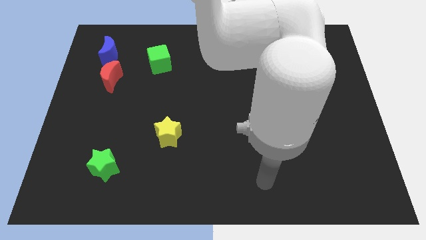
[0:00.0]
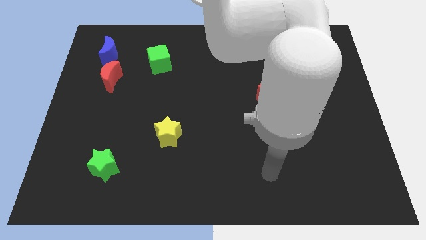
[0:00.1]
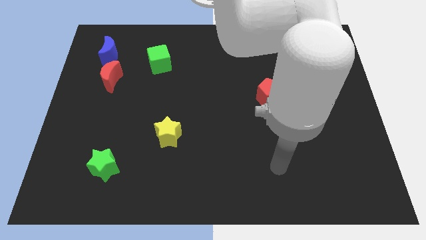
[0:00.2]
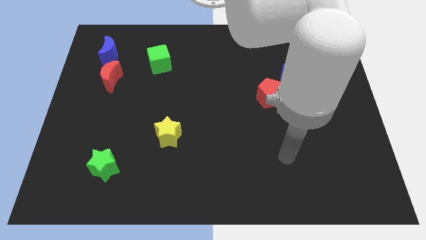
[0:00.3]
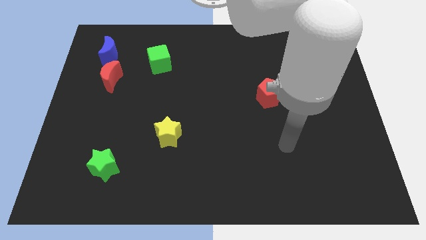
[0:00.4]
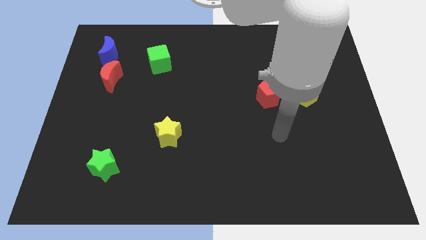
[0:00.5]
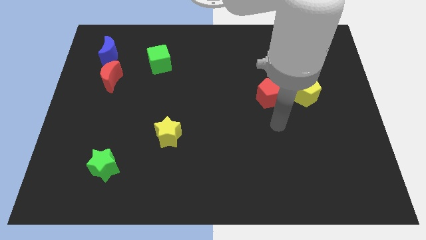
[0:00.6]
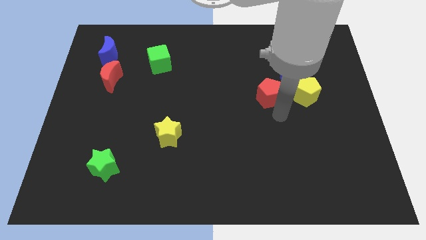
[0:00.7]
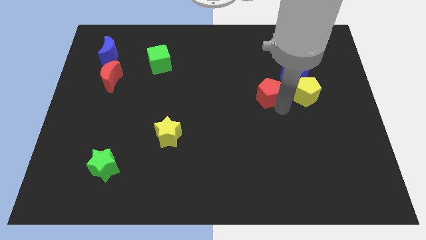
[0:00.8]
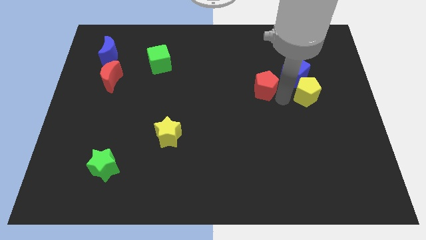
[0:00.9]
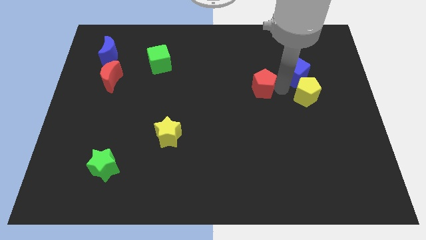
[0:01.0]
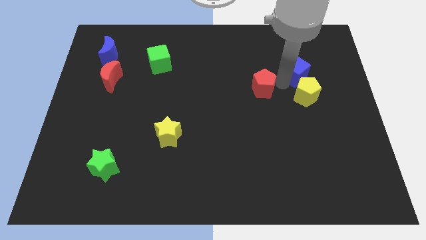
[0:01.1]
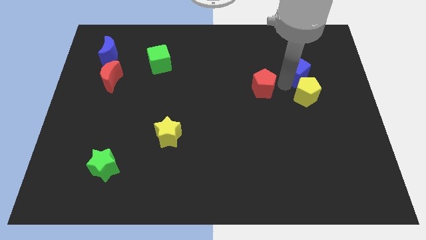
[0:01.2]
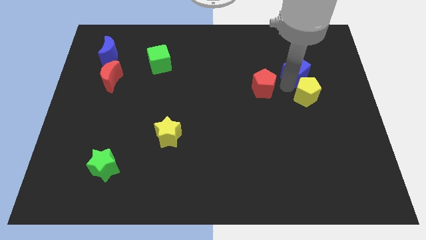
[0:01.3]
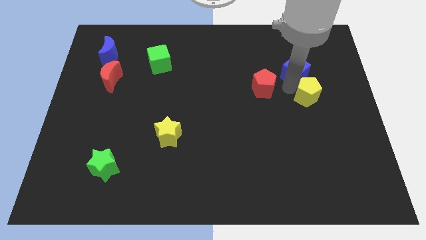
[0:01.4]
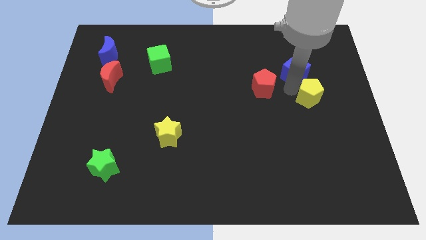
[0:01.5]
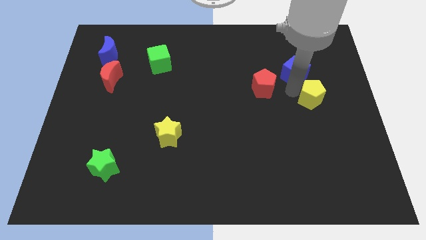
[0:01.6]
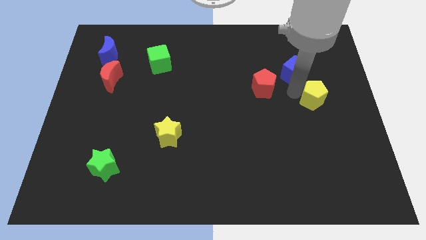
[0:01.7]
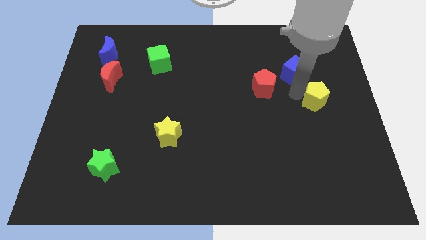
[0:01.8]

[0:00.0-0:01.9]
move the yellow pentagon away from the blue cube and red pentagon

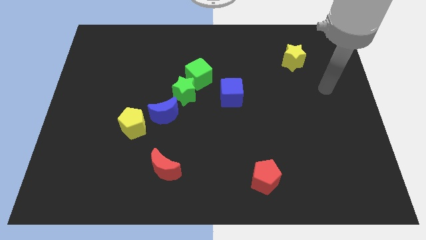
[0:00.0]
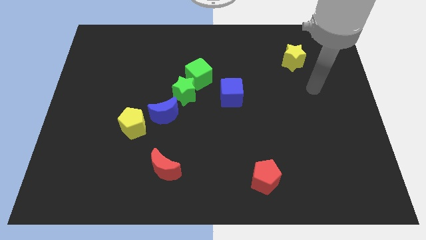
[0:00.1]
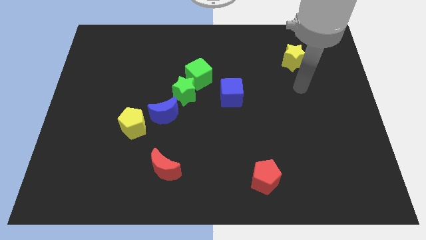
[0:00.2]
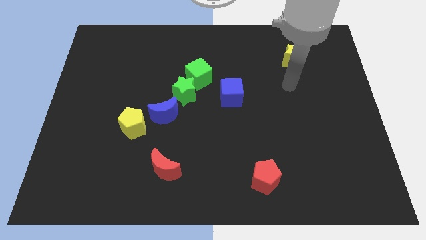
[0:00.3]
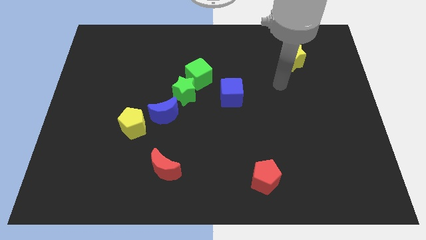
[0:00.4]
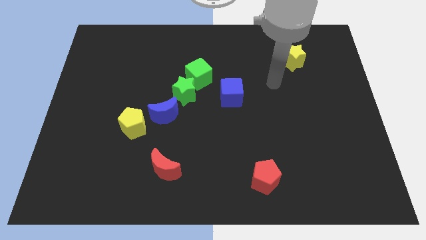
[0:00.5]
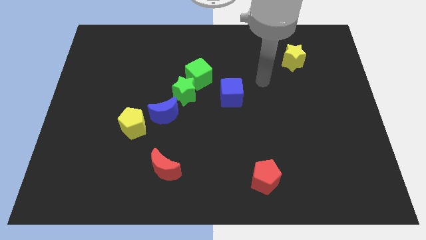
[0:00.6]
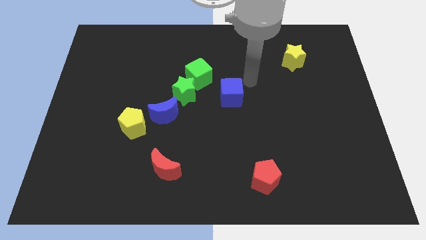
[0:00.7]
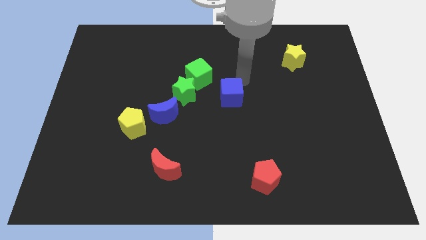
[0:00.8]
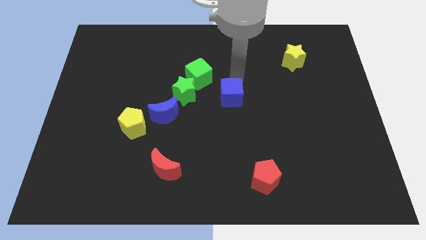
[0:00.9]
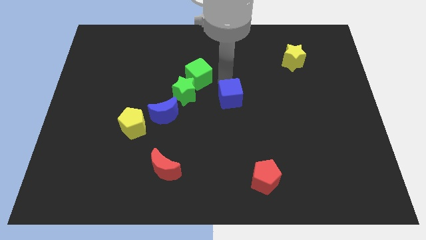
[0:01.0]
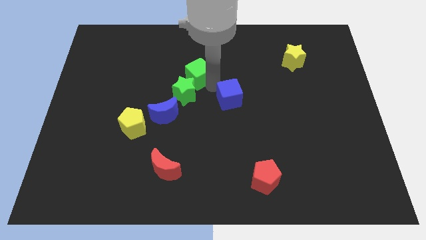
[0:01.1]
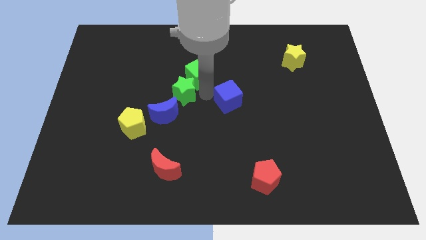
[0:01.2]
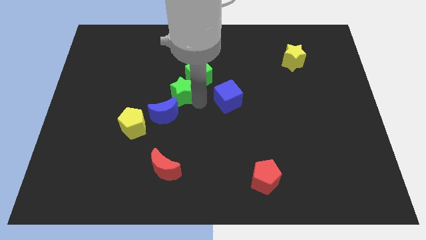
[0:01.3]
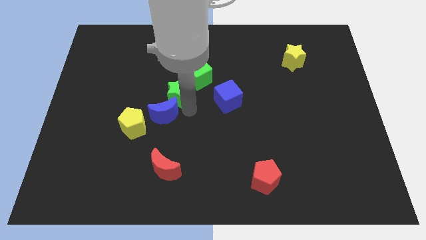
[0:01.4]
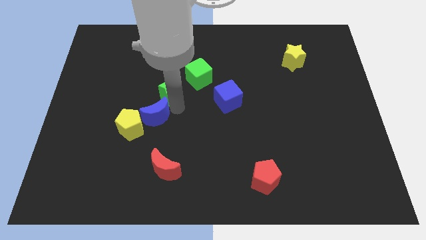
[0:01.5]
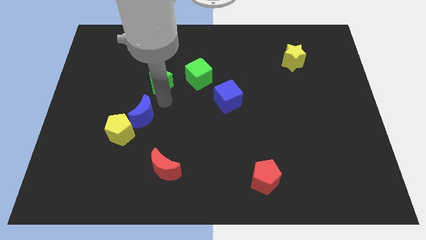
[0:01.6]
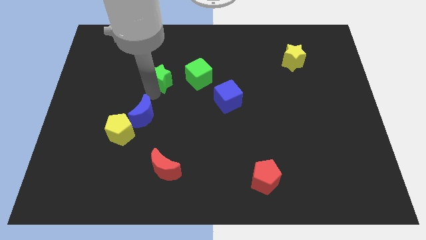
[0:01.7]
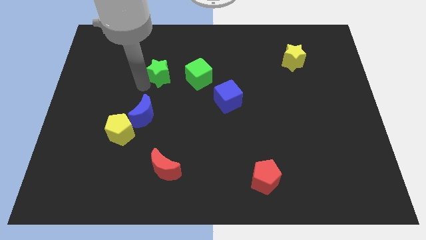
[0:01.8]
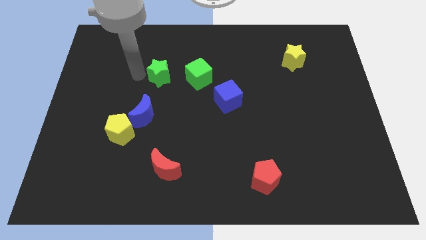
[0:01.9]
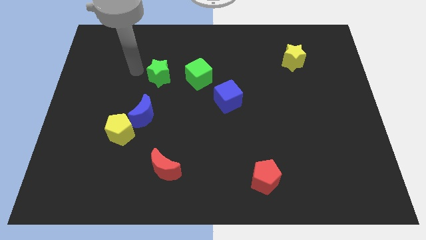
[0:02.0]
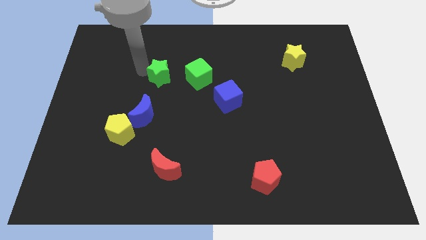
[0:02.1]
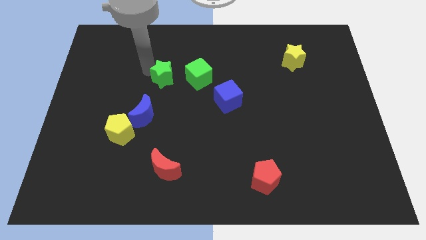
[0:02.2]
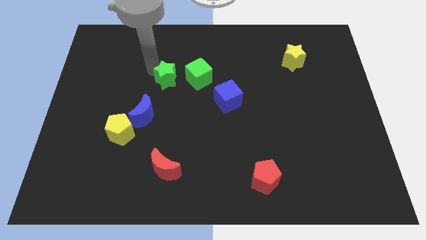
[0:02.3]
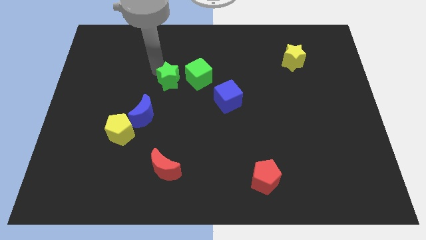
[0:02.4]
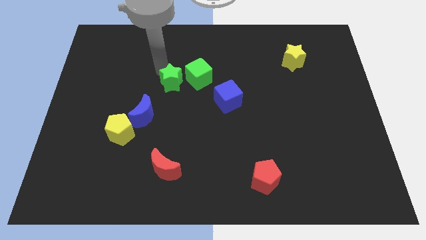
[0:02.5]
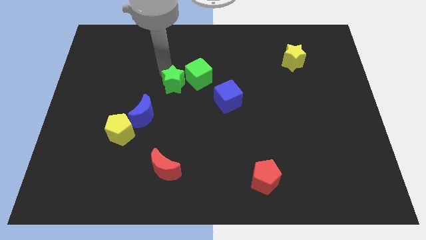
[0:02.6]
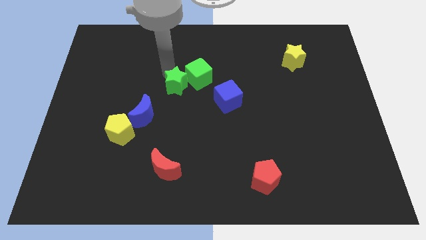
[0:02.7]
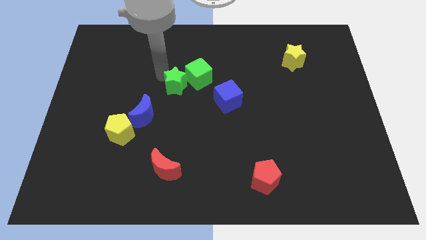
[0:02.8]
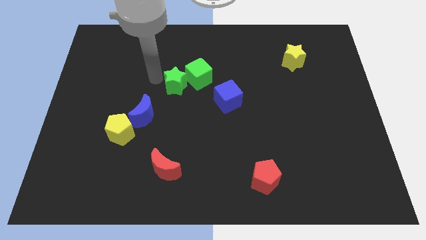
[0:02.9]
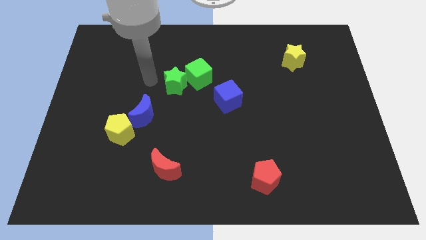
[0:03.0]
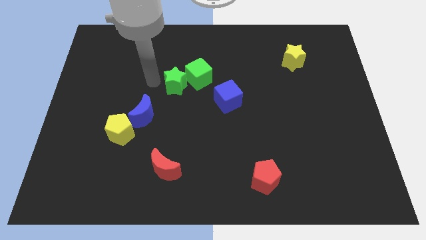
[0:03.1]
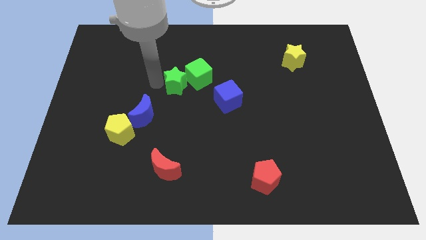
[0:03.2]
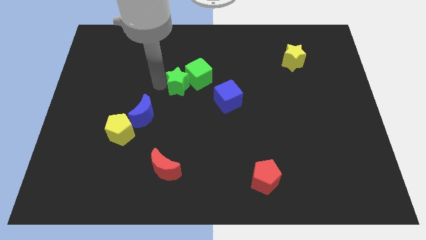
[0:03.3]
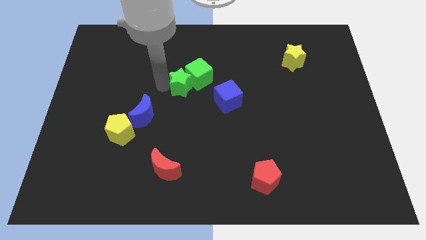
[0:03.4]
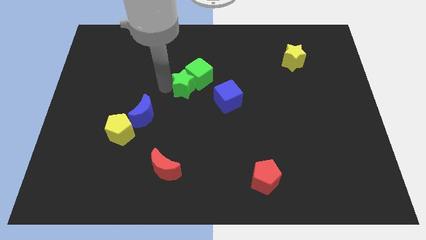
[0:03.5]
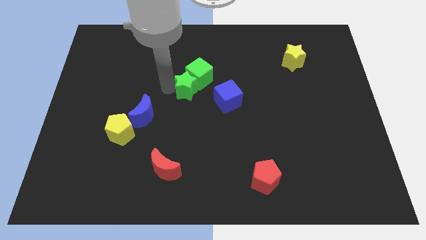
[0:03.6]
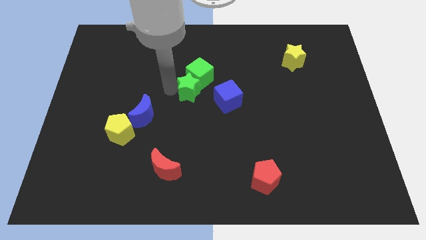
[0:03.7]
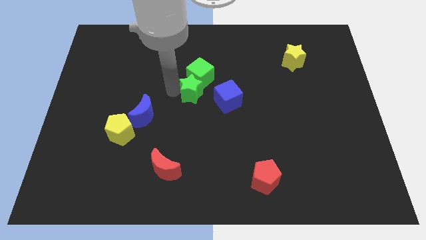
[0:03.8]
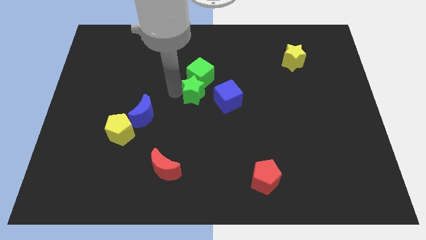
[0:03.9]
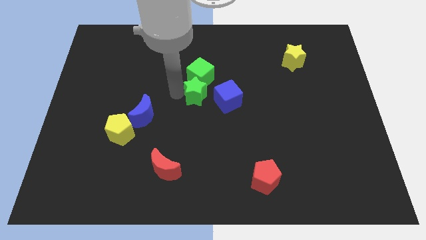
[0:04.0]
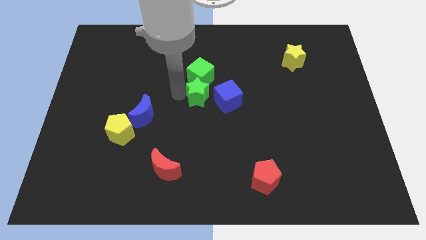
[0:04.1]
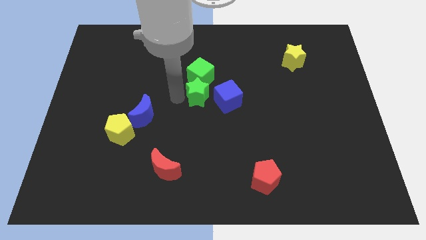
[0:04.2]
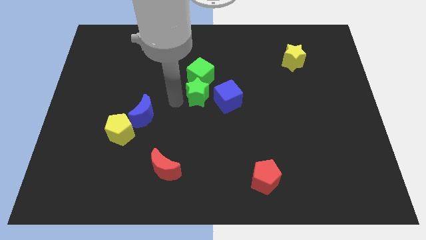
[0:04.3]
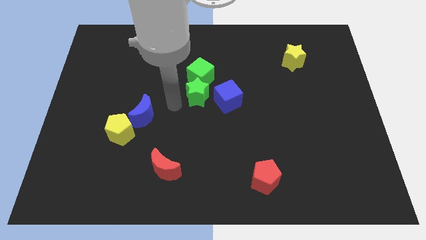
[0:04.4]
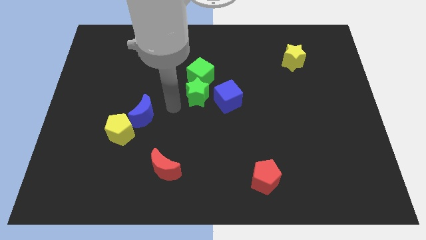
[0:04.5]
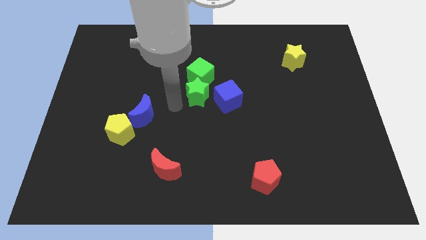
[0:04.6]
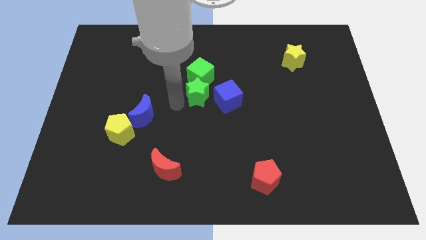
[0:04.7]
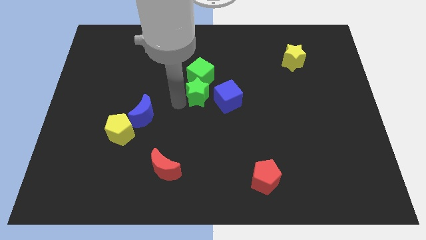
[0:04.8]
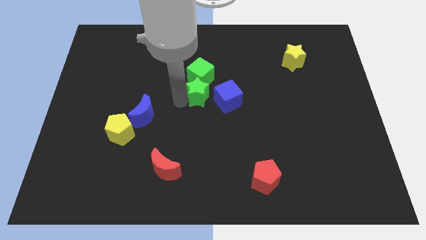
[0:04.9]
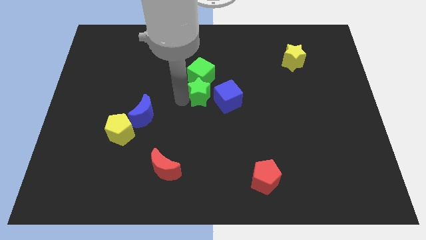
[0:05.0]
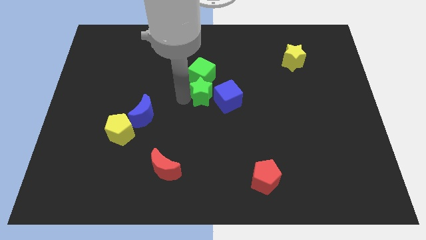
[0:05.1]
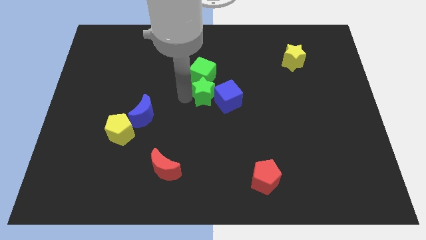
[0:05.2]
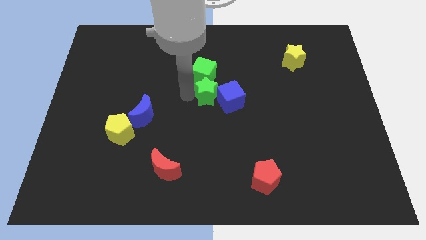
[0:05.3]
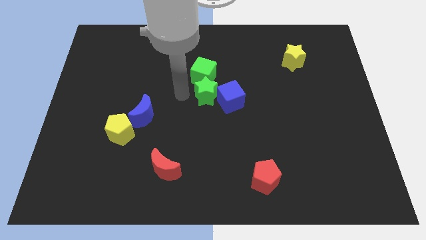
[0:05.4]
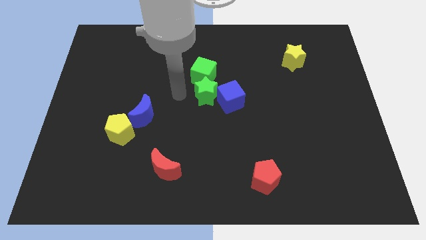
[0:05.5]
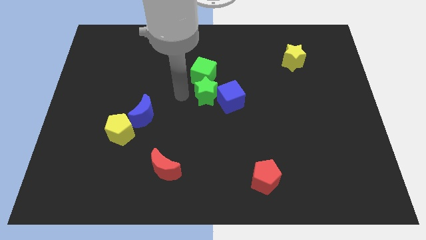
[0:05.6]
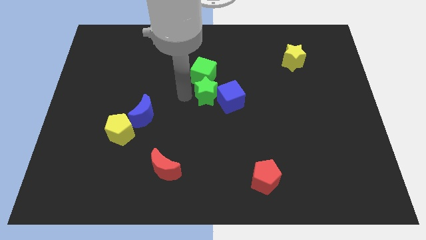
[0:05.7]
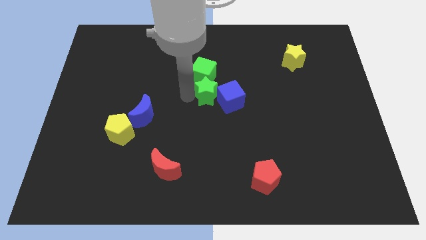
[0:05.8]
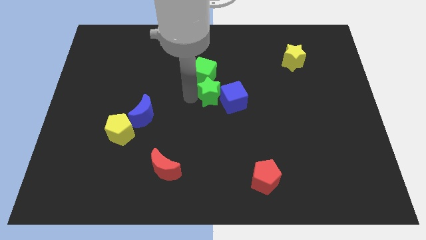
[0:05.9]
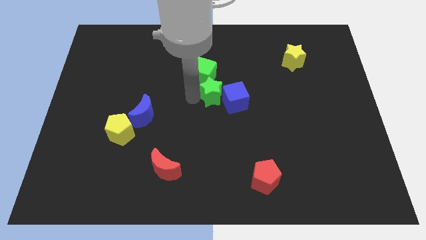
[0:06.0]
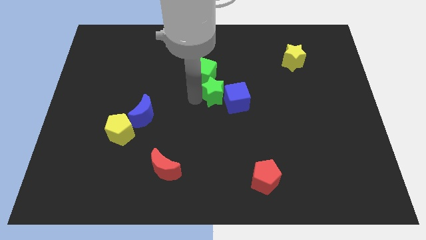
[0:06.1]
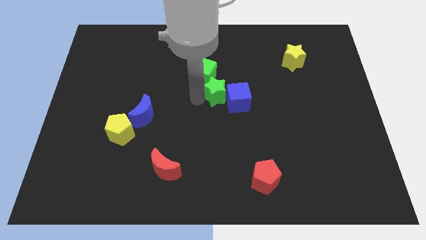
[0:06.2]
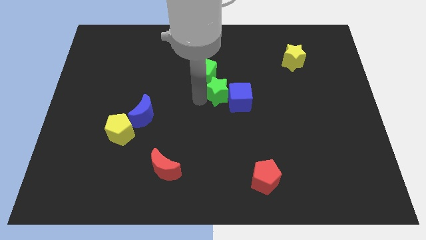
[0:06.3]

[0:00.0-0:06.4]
separate the green star from the green cube and blue moon

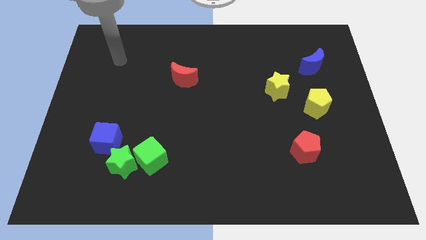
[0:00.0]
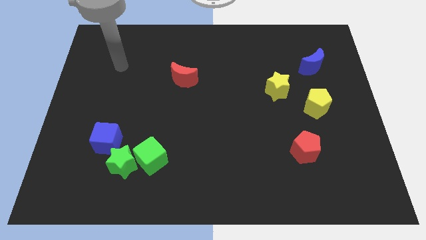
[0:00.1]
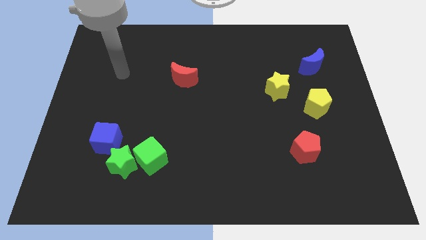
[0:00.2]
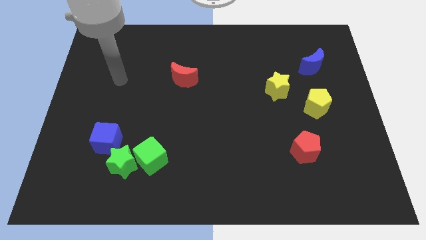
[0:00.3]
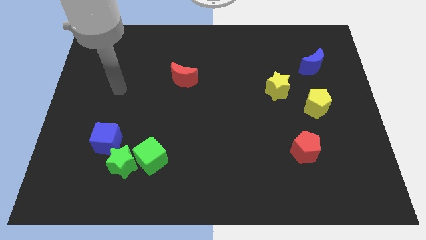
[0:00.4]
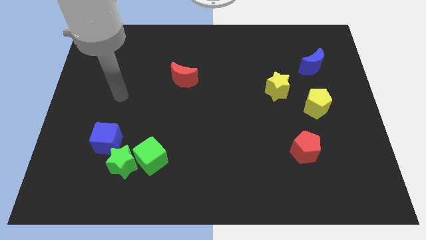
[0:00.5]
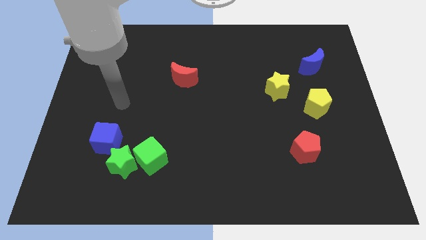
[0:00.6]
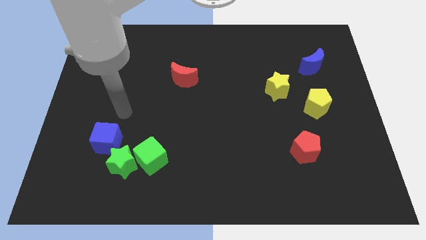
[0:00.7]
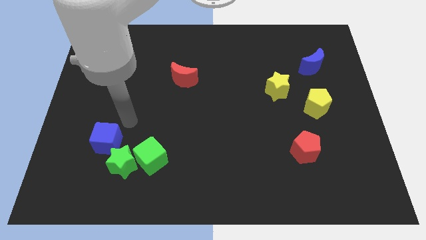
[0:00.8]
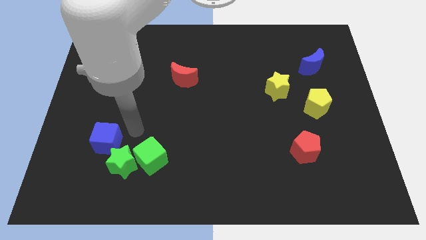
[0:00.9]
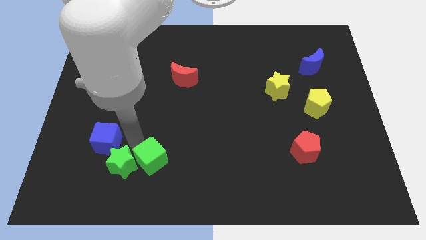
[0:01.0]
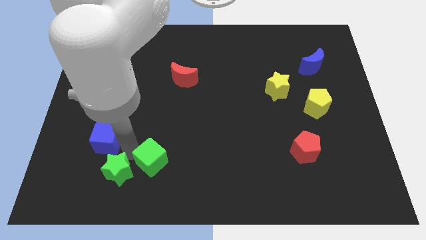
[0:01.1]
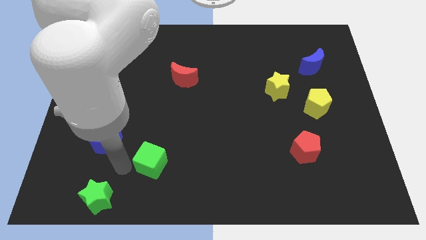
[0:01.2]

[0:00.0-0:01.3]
move the green cube away from the green star
